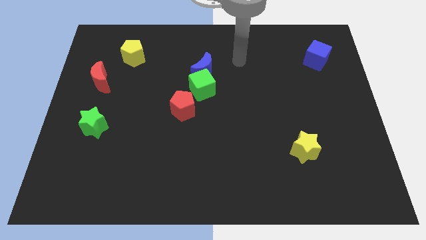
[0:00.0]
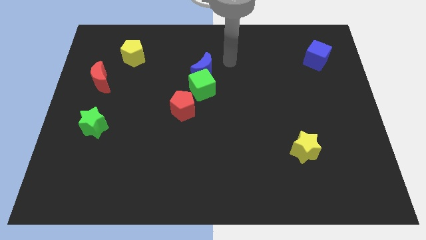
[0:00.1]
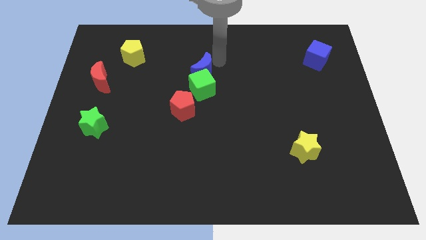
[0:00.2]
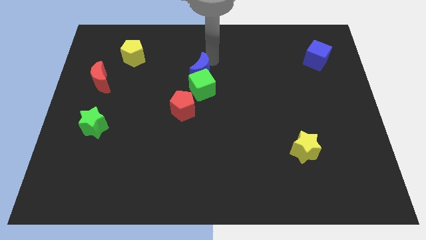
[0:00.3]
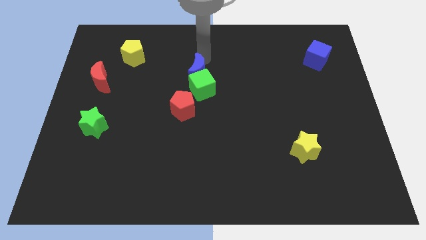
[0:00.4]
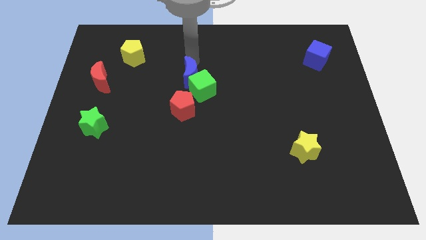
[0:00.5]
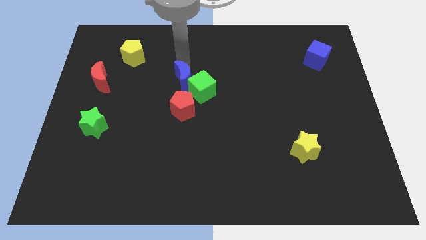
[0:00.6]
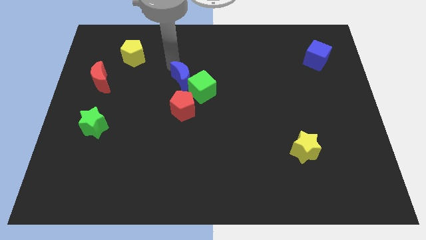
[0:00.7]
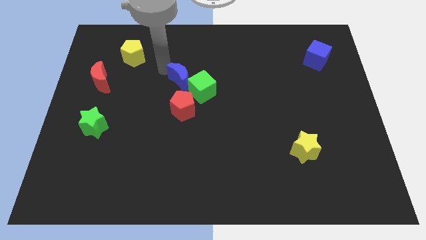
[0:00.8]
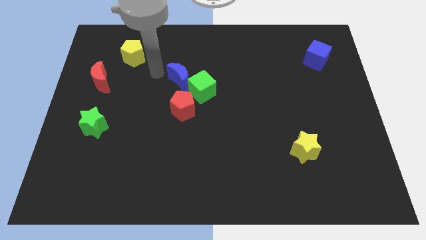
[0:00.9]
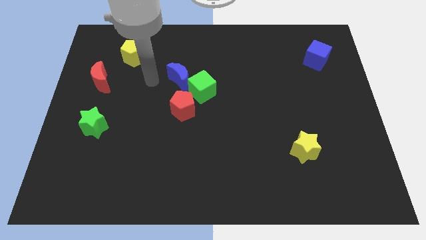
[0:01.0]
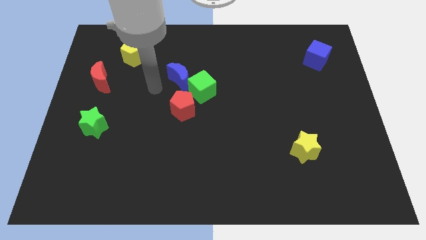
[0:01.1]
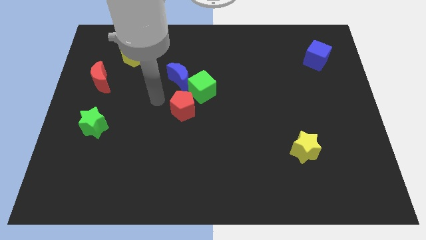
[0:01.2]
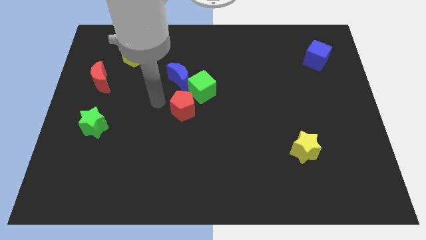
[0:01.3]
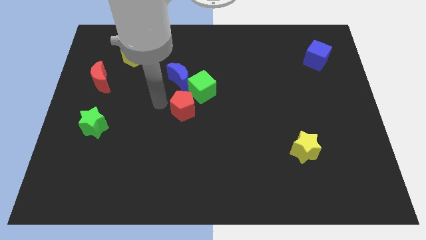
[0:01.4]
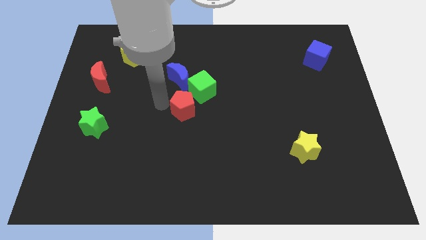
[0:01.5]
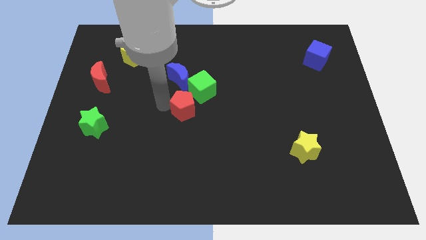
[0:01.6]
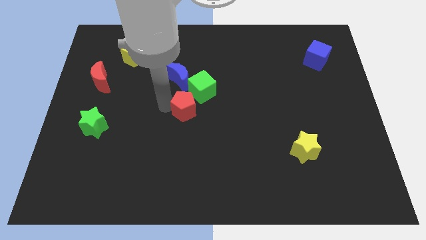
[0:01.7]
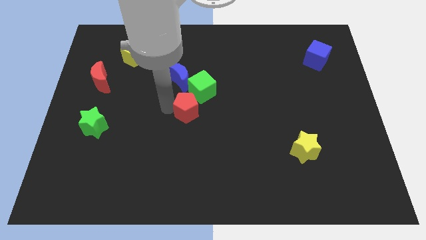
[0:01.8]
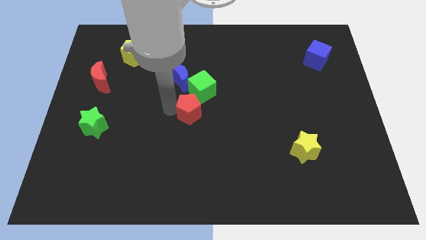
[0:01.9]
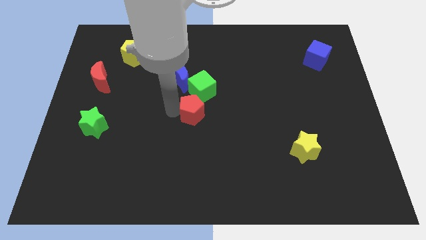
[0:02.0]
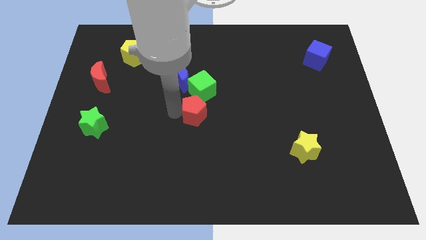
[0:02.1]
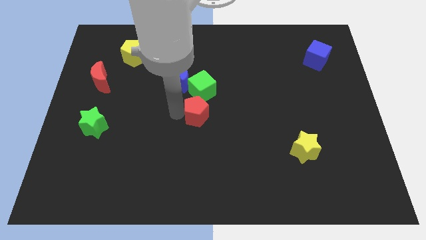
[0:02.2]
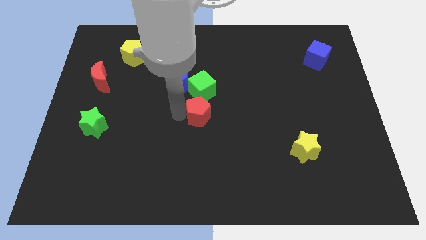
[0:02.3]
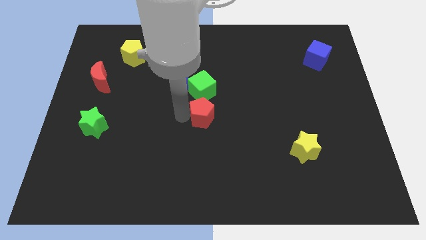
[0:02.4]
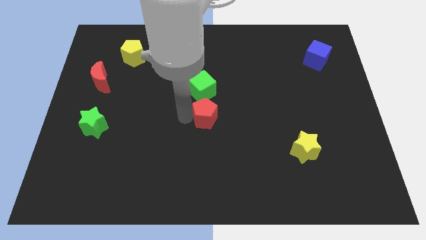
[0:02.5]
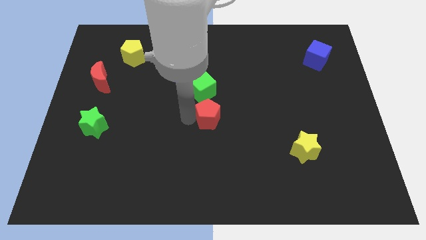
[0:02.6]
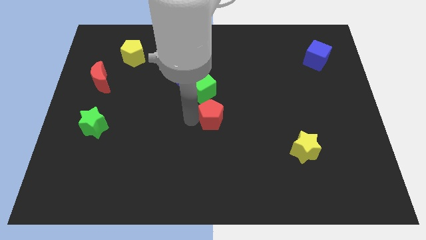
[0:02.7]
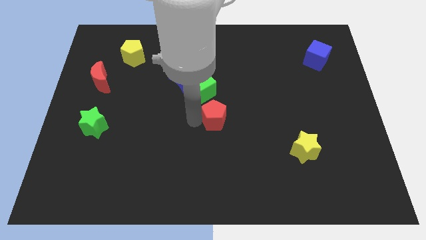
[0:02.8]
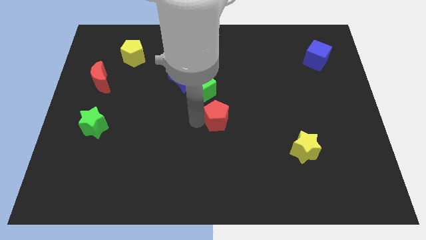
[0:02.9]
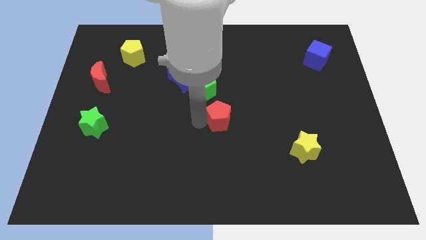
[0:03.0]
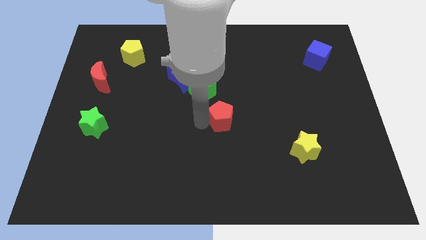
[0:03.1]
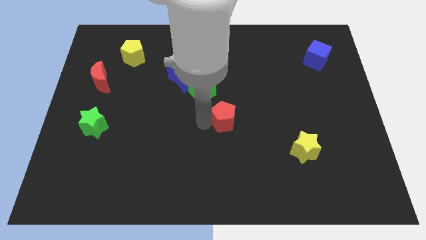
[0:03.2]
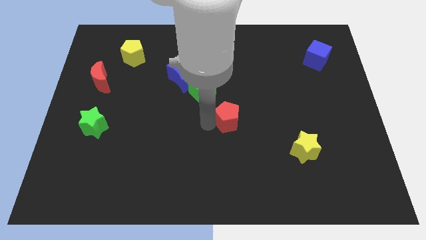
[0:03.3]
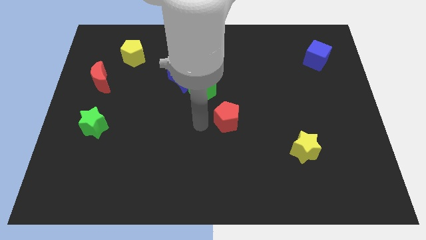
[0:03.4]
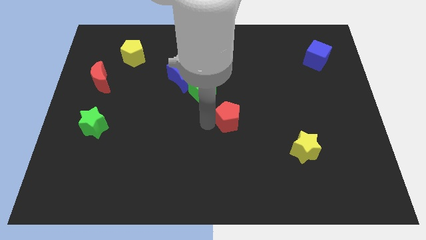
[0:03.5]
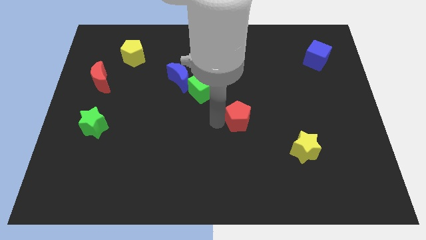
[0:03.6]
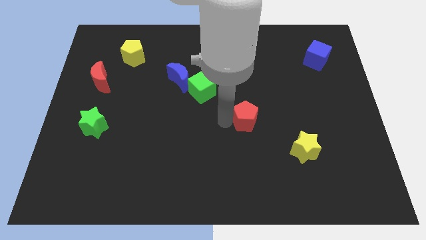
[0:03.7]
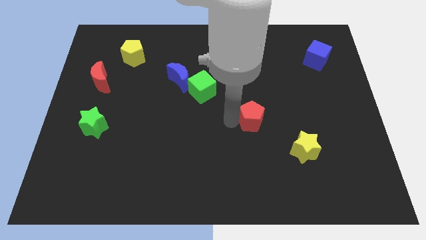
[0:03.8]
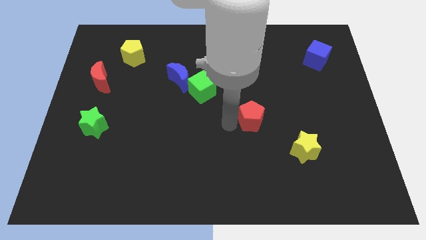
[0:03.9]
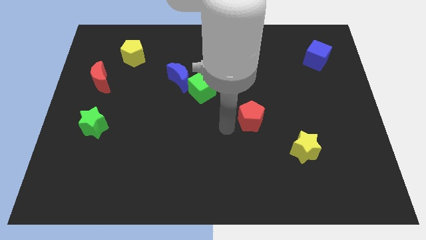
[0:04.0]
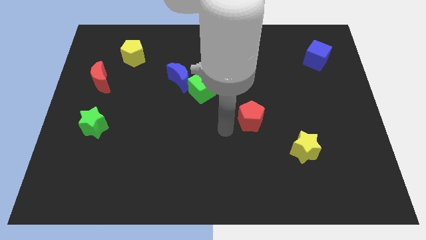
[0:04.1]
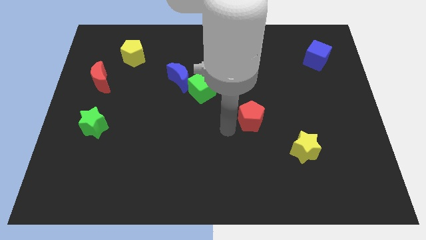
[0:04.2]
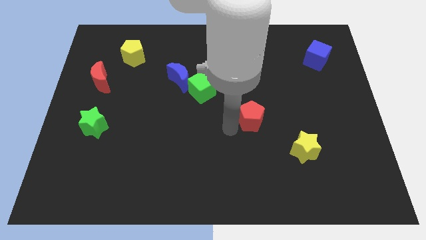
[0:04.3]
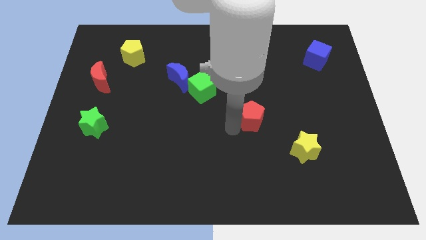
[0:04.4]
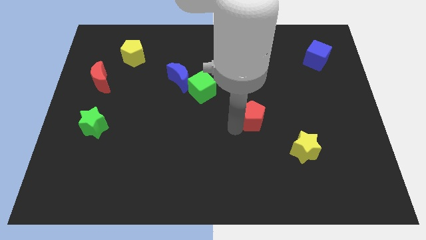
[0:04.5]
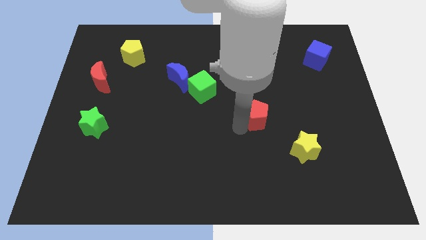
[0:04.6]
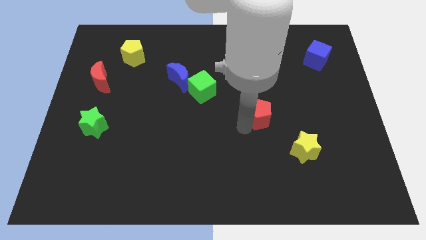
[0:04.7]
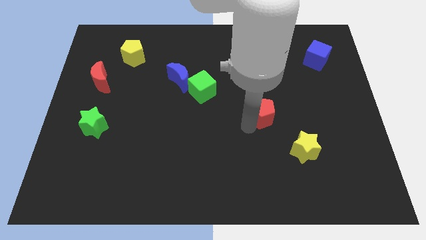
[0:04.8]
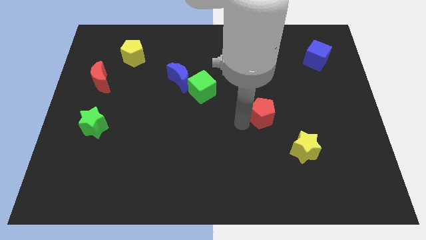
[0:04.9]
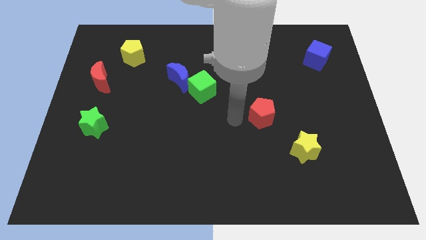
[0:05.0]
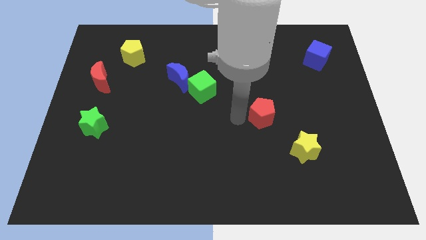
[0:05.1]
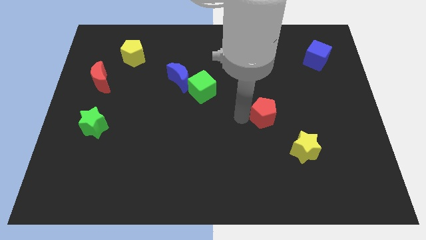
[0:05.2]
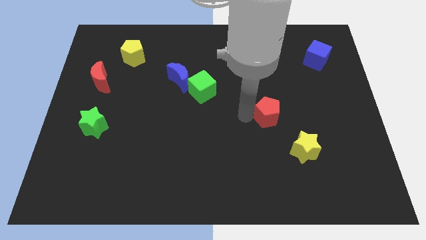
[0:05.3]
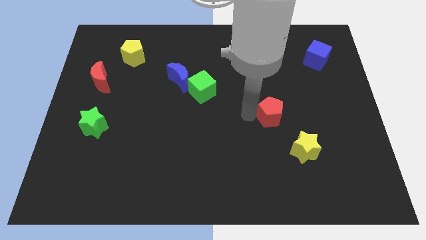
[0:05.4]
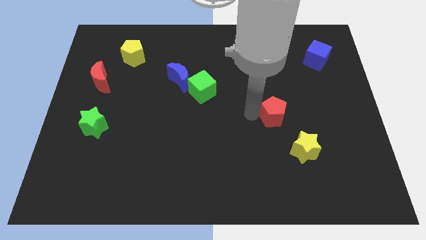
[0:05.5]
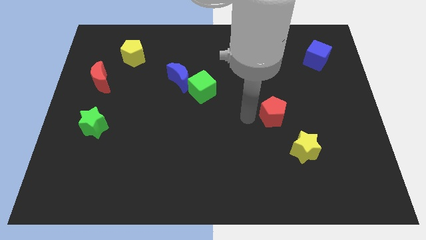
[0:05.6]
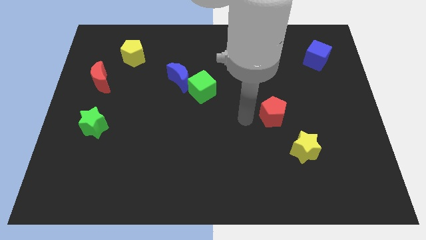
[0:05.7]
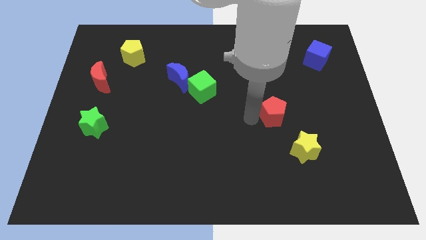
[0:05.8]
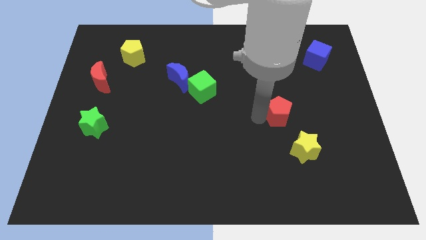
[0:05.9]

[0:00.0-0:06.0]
put the red pentagon above the yellow star

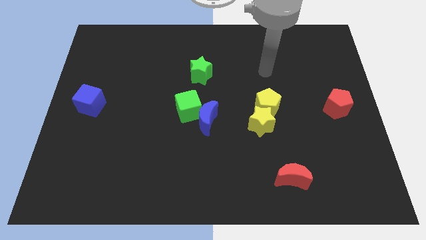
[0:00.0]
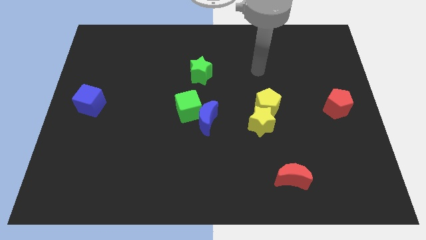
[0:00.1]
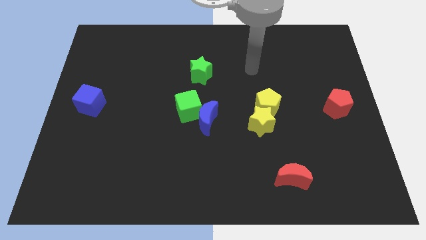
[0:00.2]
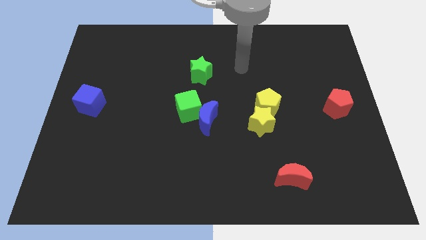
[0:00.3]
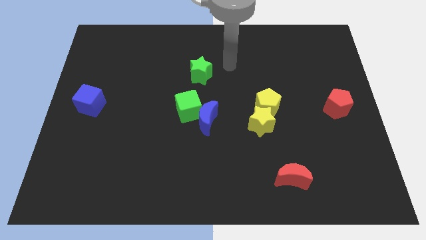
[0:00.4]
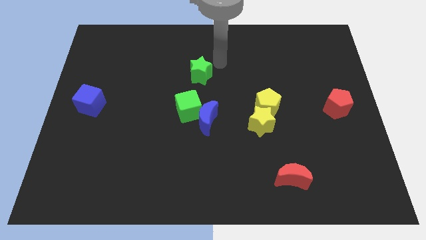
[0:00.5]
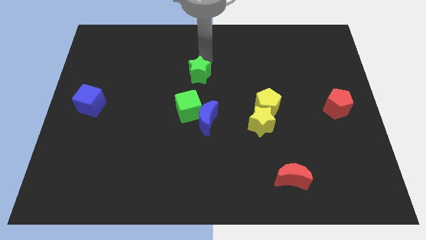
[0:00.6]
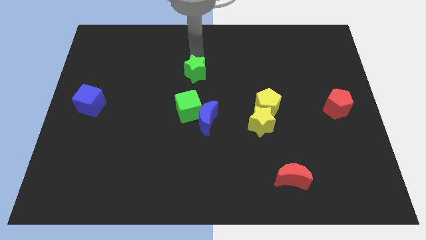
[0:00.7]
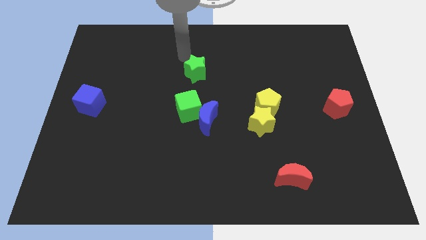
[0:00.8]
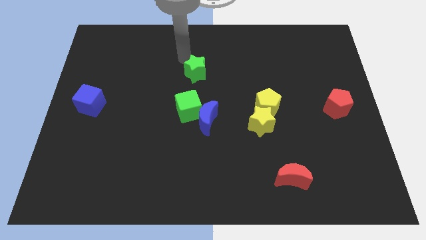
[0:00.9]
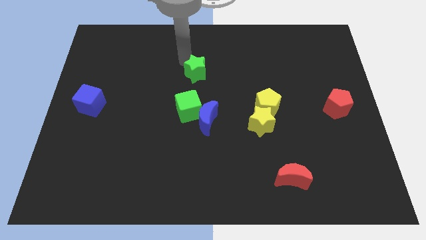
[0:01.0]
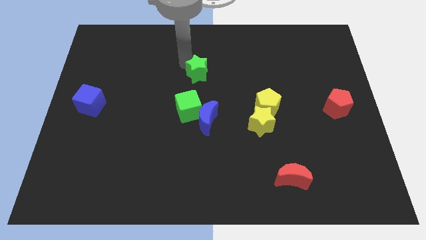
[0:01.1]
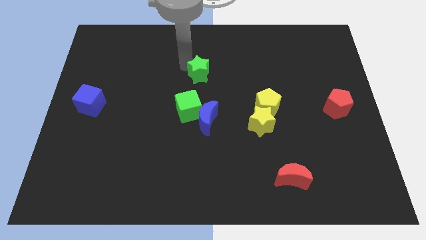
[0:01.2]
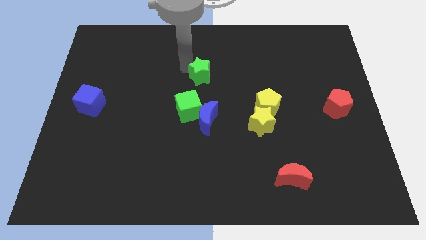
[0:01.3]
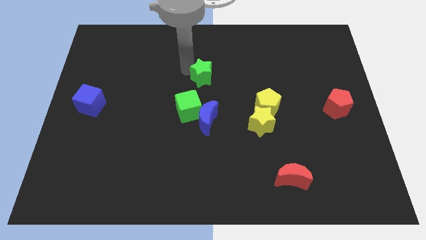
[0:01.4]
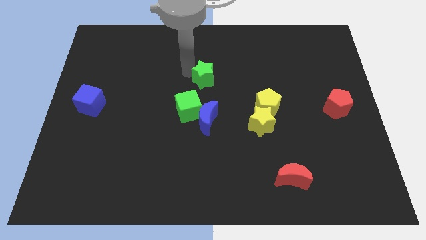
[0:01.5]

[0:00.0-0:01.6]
move the green star to the top right of the green cube

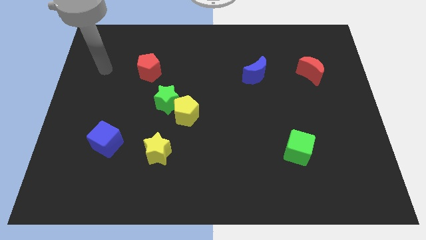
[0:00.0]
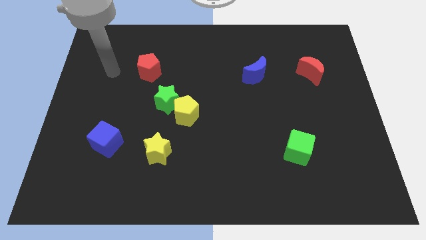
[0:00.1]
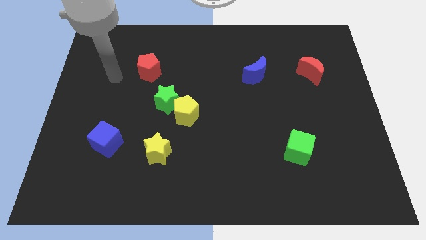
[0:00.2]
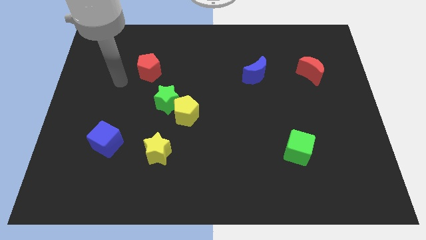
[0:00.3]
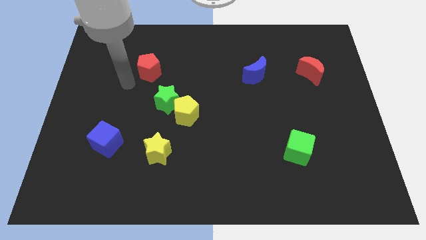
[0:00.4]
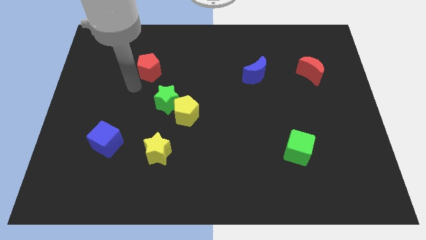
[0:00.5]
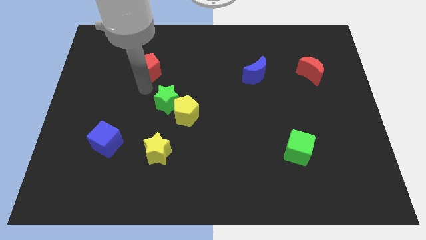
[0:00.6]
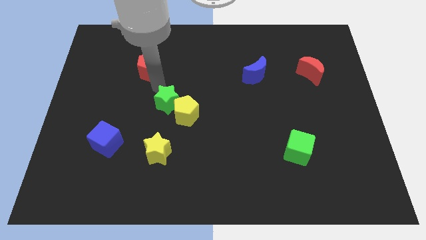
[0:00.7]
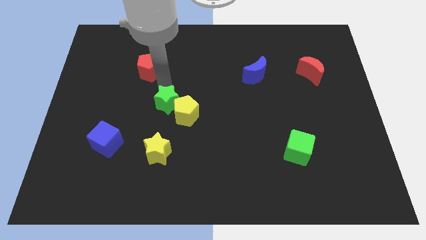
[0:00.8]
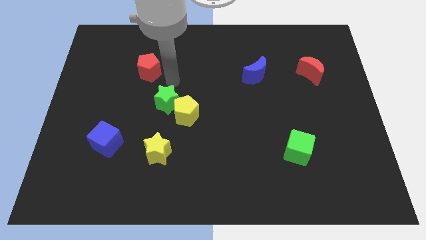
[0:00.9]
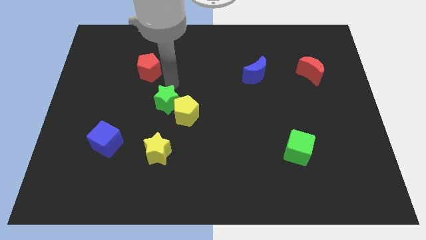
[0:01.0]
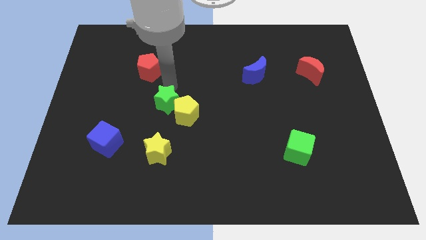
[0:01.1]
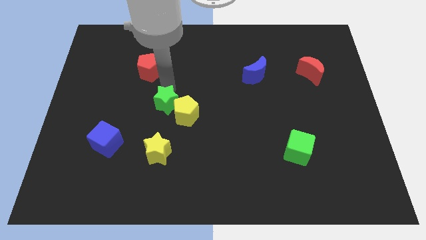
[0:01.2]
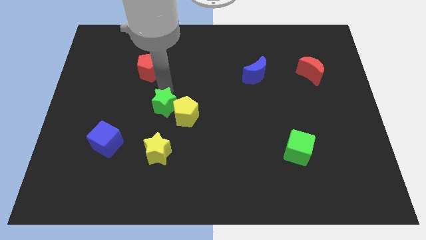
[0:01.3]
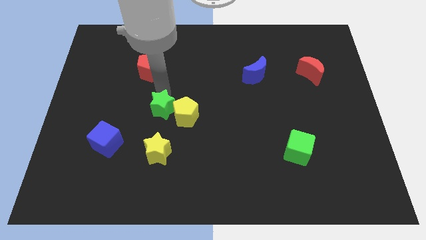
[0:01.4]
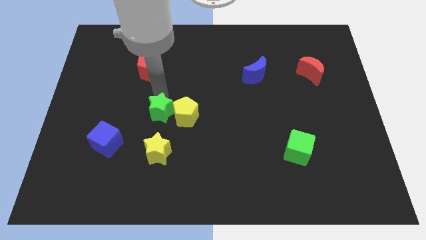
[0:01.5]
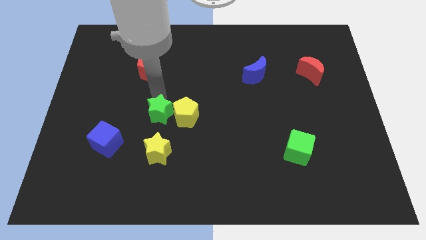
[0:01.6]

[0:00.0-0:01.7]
push the green star to the bottom left side of the yellow pentagon
